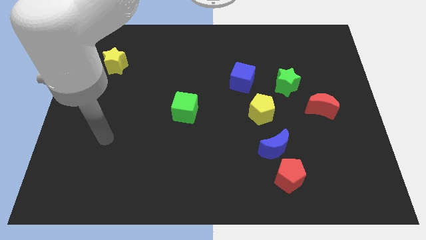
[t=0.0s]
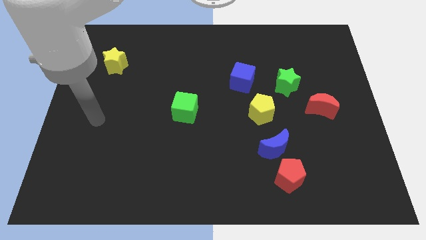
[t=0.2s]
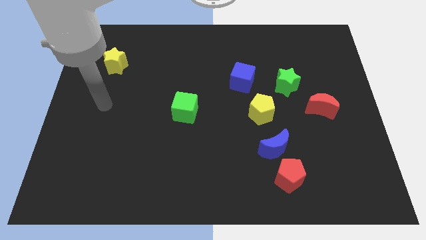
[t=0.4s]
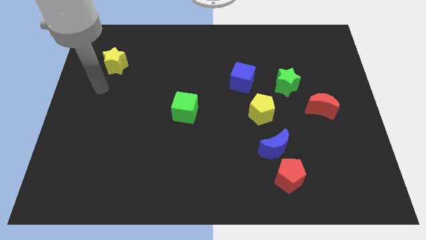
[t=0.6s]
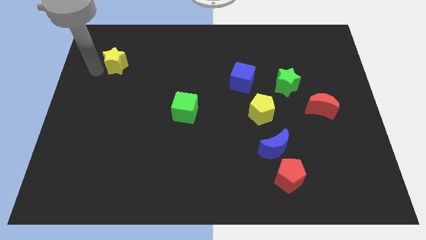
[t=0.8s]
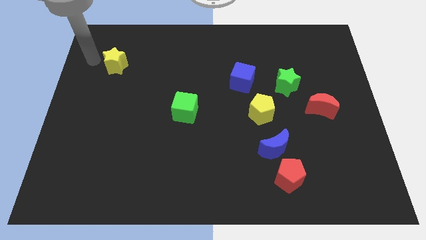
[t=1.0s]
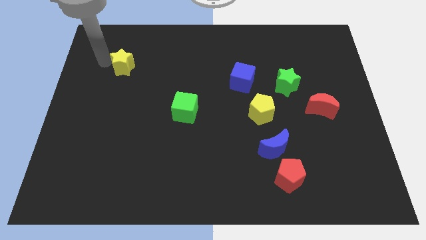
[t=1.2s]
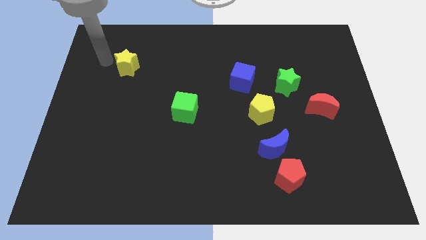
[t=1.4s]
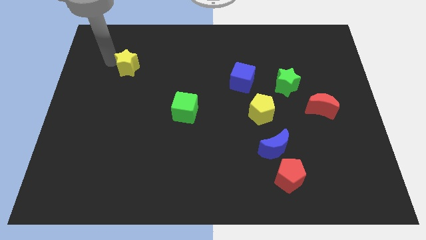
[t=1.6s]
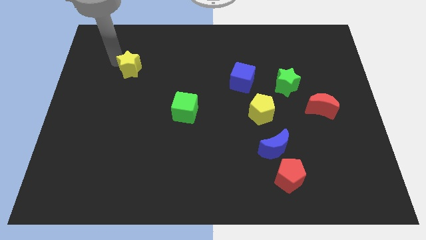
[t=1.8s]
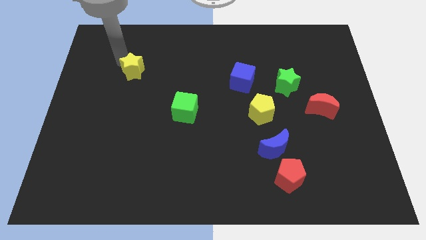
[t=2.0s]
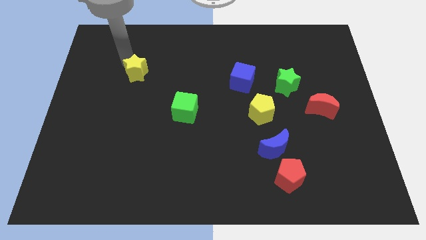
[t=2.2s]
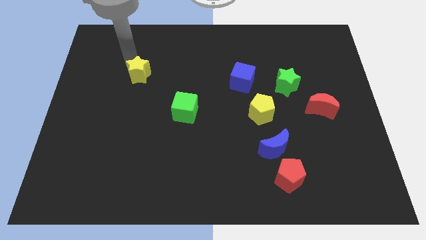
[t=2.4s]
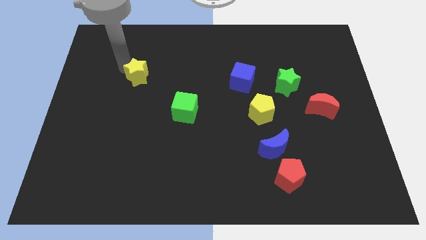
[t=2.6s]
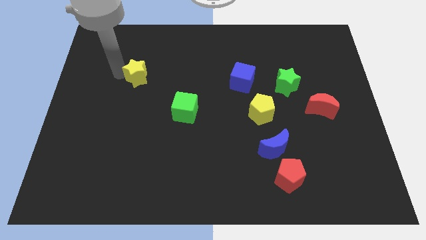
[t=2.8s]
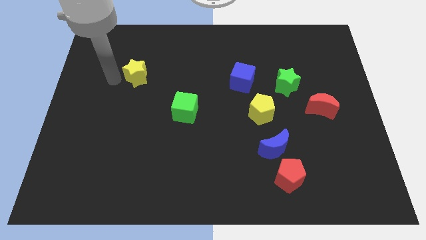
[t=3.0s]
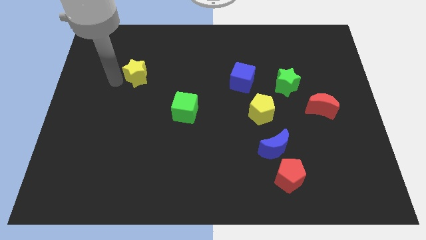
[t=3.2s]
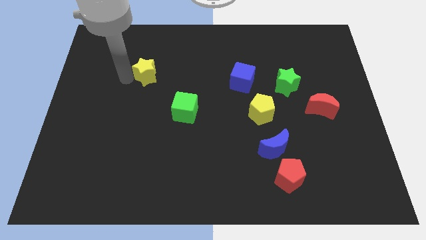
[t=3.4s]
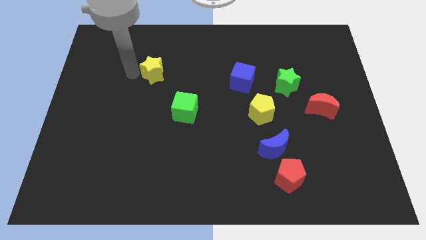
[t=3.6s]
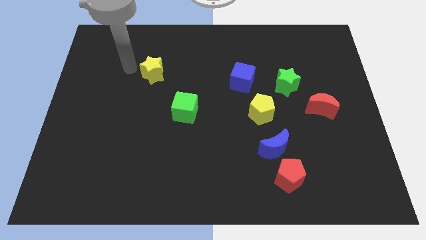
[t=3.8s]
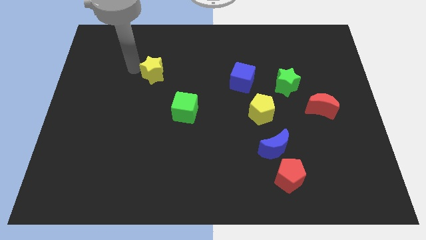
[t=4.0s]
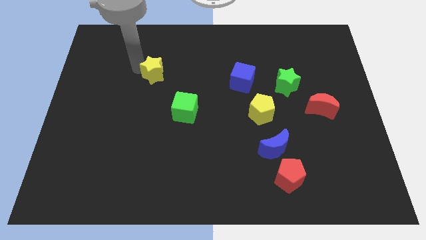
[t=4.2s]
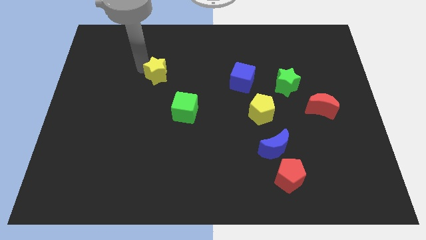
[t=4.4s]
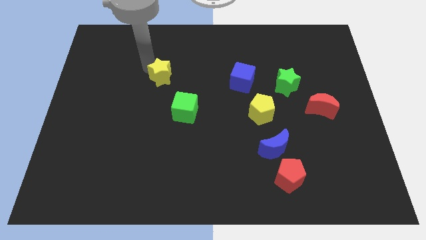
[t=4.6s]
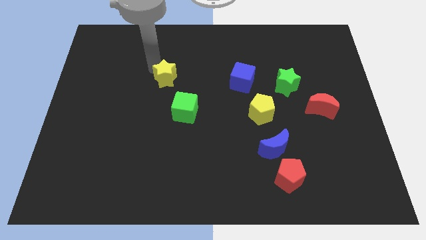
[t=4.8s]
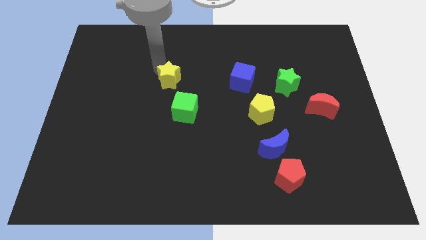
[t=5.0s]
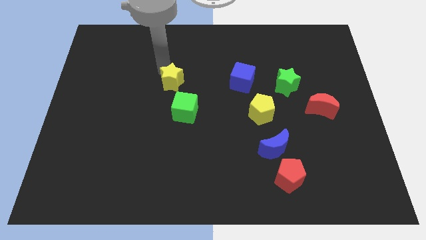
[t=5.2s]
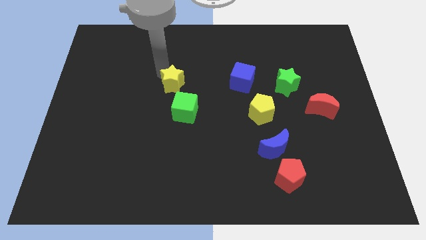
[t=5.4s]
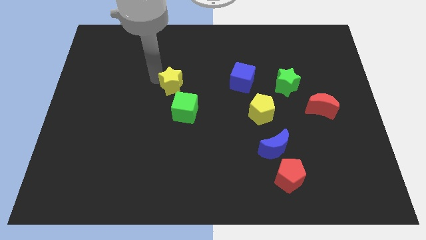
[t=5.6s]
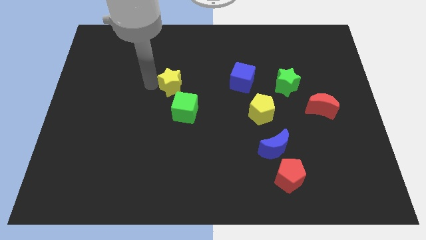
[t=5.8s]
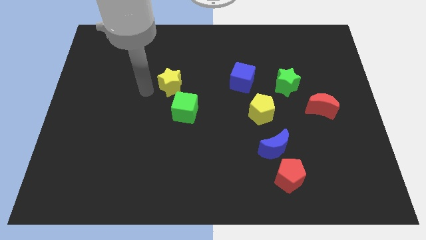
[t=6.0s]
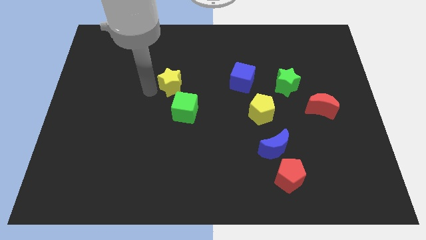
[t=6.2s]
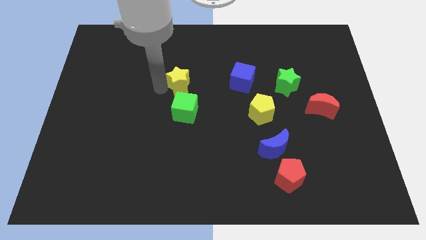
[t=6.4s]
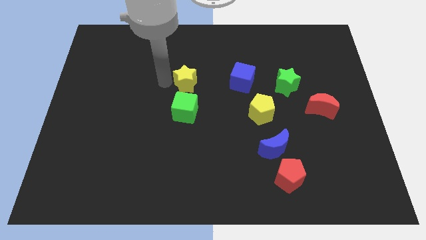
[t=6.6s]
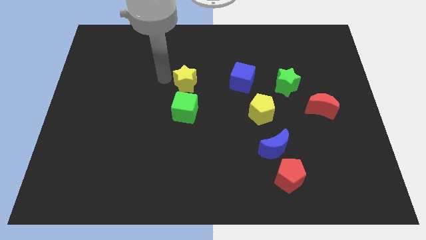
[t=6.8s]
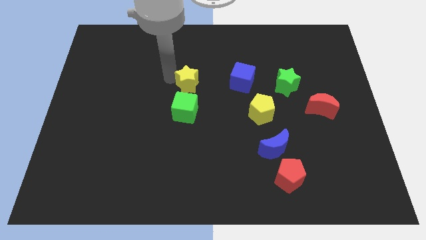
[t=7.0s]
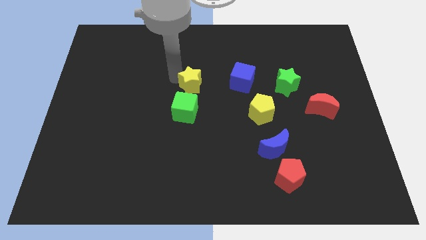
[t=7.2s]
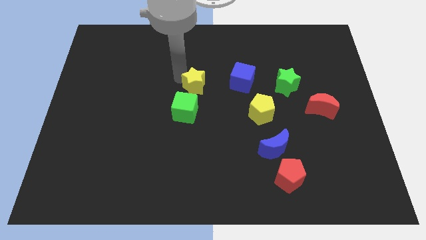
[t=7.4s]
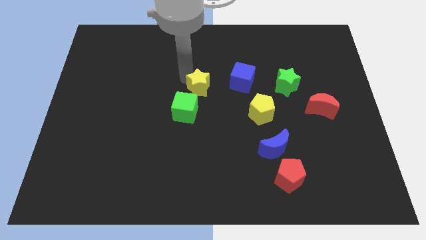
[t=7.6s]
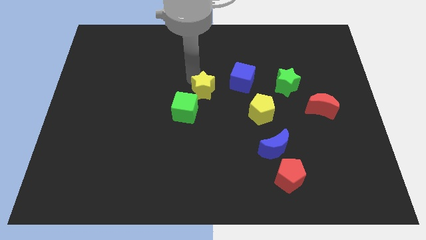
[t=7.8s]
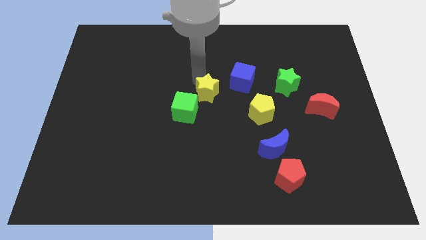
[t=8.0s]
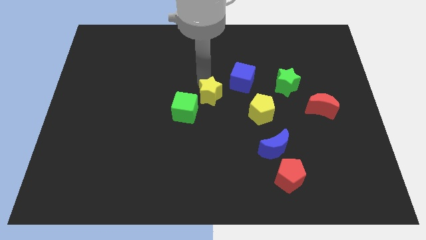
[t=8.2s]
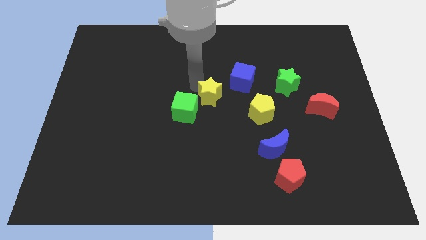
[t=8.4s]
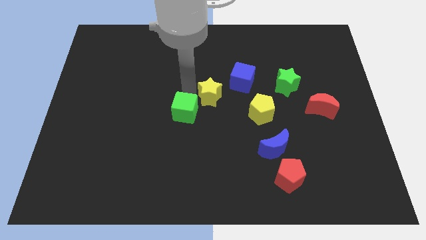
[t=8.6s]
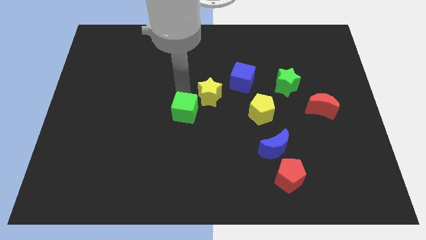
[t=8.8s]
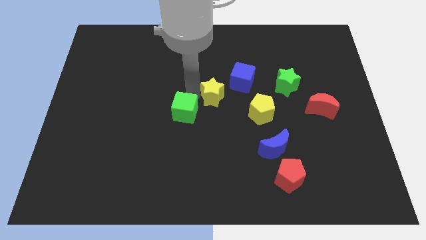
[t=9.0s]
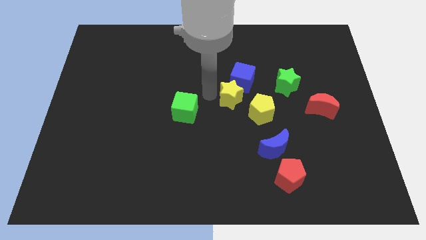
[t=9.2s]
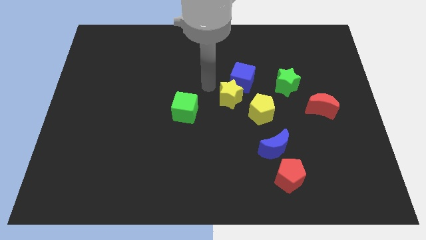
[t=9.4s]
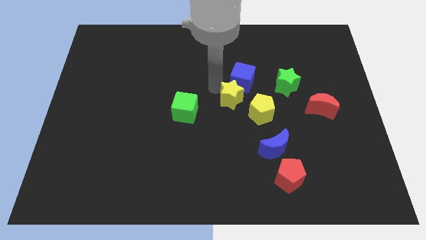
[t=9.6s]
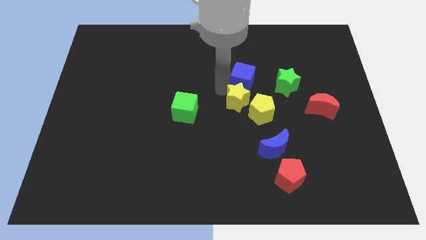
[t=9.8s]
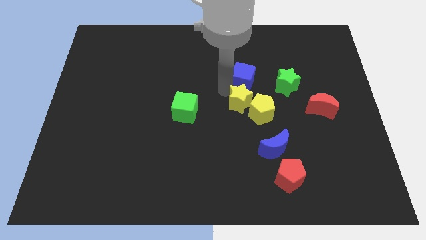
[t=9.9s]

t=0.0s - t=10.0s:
move the yellow star to the yellow pentagon

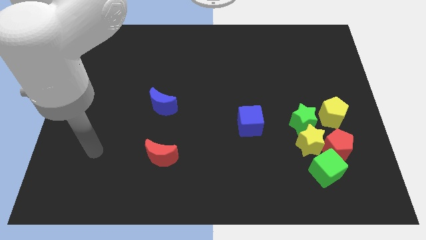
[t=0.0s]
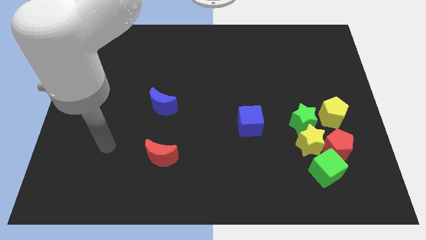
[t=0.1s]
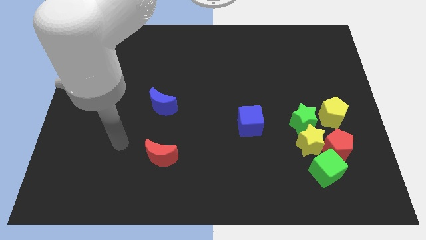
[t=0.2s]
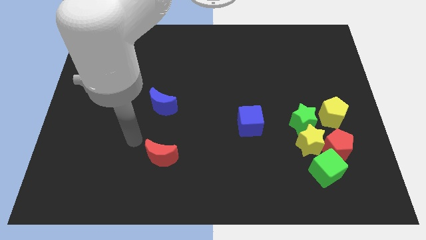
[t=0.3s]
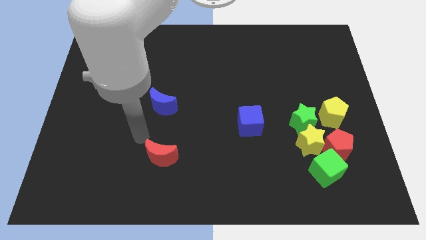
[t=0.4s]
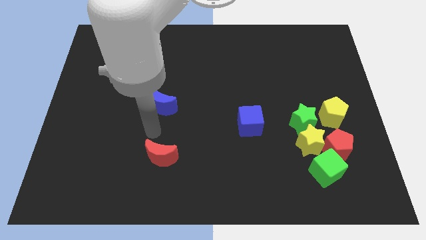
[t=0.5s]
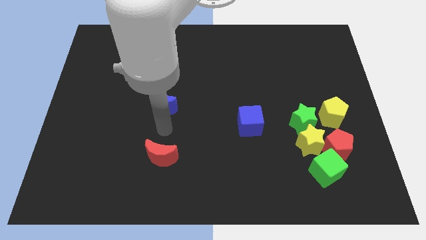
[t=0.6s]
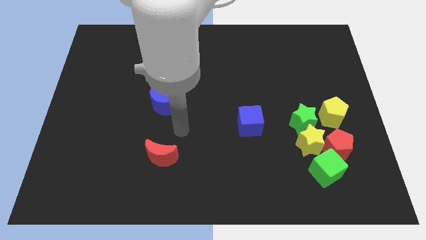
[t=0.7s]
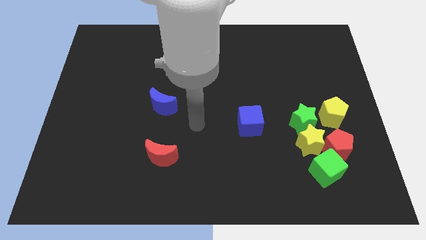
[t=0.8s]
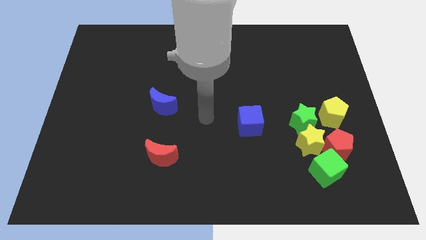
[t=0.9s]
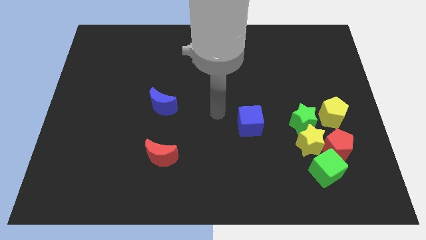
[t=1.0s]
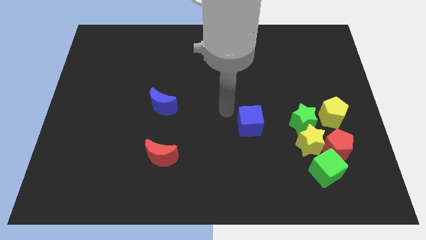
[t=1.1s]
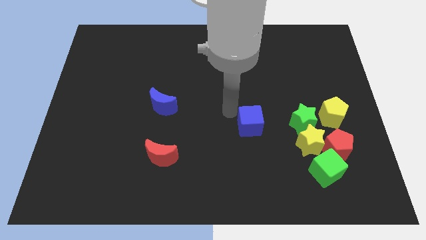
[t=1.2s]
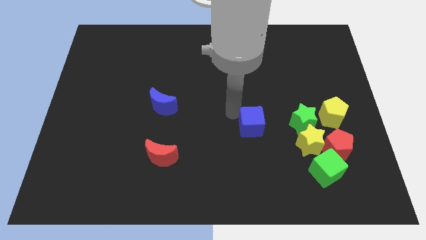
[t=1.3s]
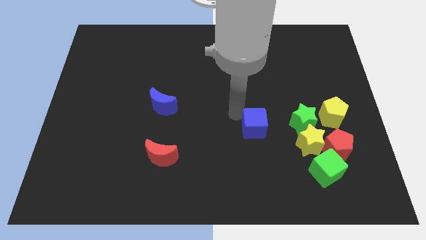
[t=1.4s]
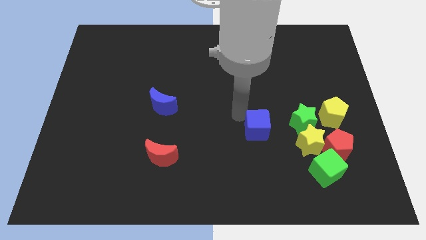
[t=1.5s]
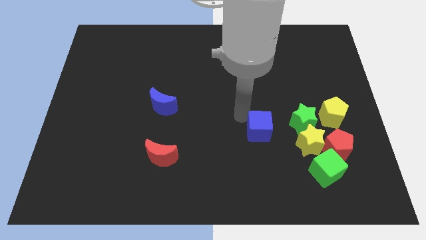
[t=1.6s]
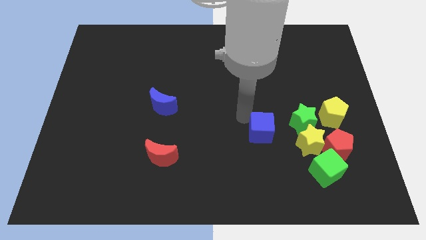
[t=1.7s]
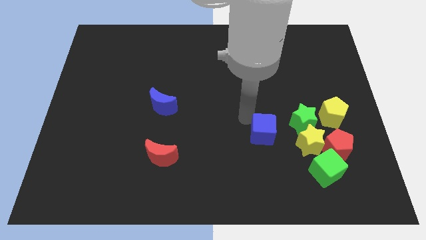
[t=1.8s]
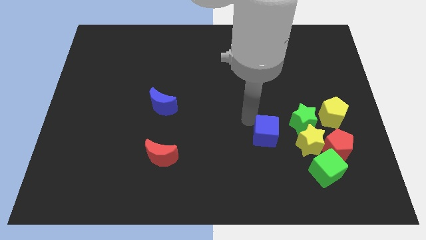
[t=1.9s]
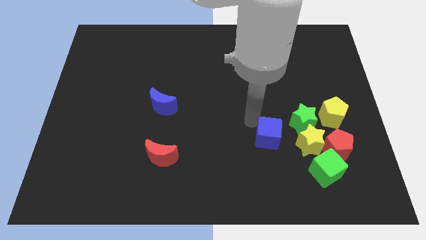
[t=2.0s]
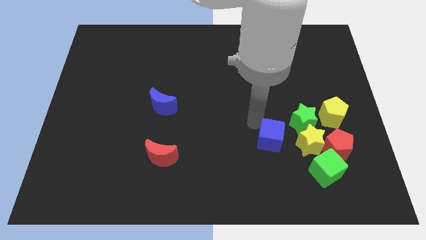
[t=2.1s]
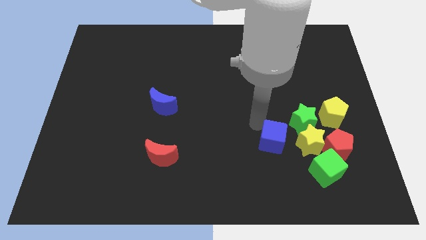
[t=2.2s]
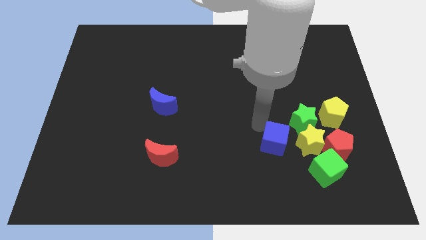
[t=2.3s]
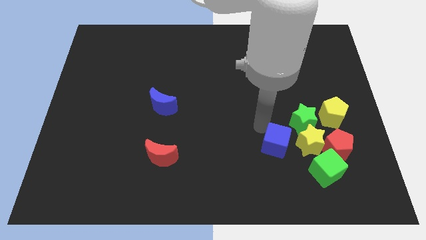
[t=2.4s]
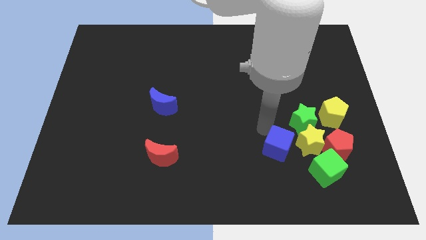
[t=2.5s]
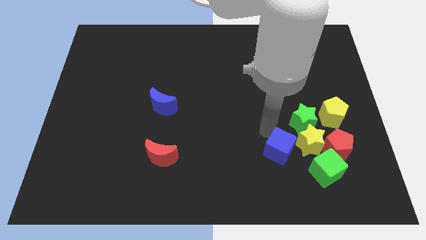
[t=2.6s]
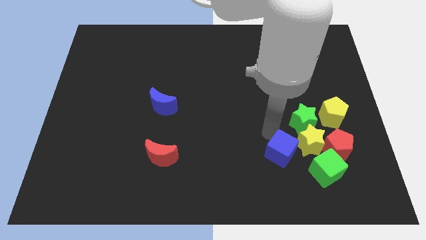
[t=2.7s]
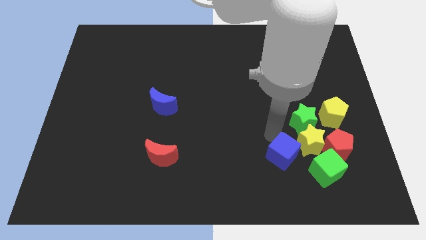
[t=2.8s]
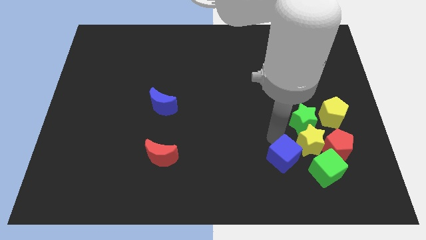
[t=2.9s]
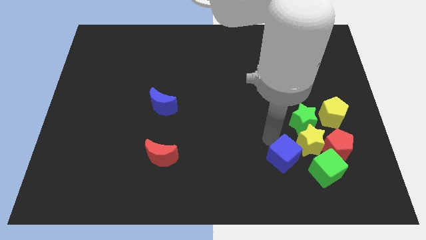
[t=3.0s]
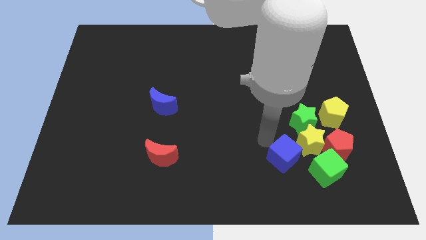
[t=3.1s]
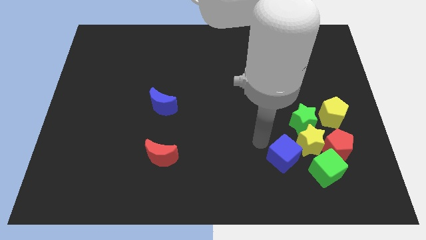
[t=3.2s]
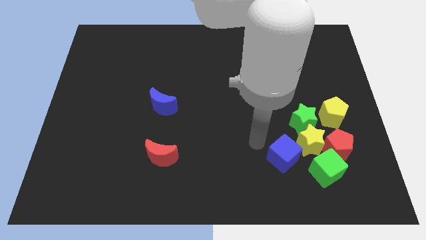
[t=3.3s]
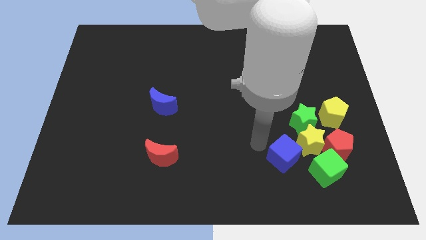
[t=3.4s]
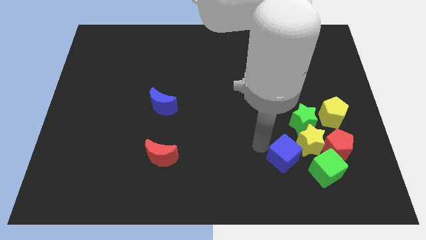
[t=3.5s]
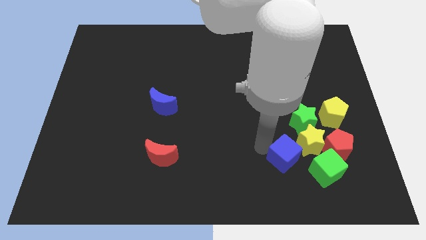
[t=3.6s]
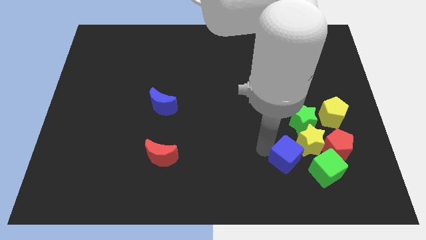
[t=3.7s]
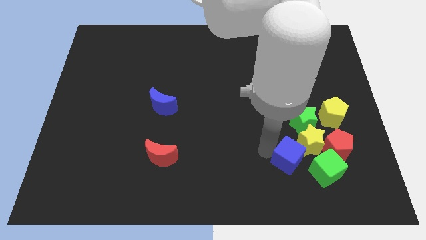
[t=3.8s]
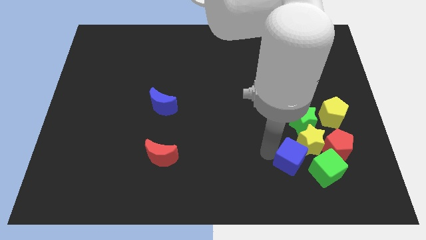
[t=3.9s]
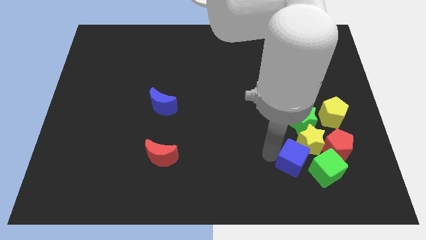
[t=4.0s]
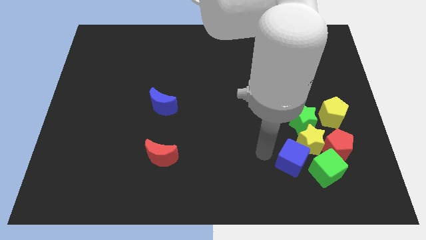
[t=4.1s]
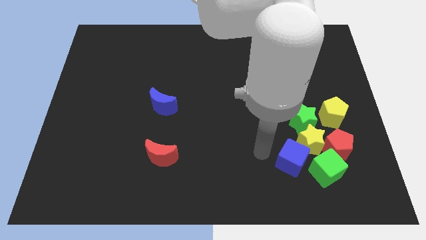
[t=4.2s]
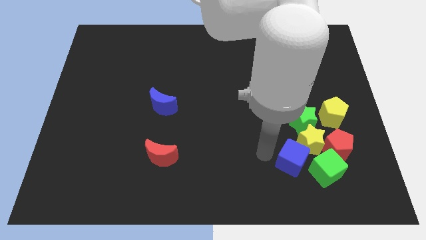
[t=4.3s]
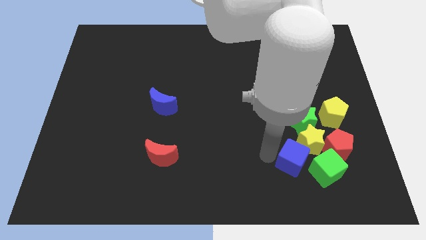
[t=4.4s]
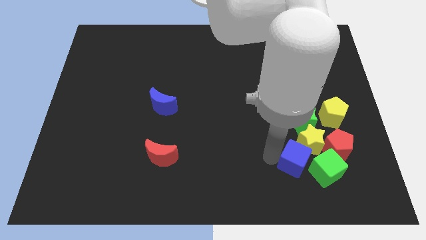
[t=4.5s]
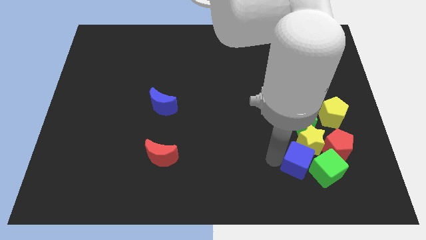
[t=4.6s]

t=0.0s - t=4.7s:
move the blue cube next to the green cube
